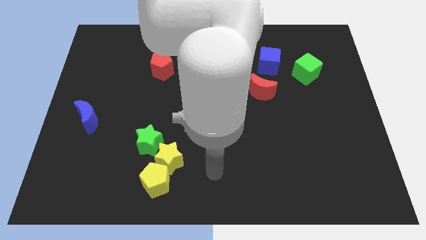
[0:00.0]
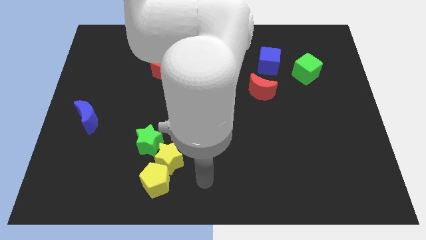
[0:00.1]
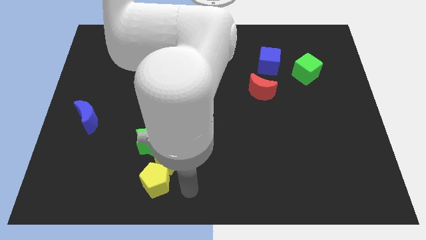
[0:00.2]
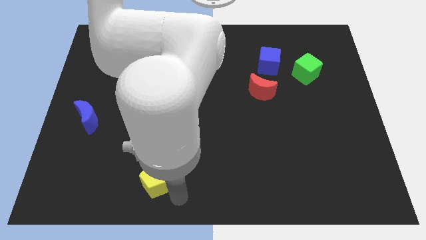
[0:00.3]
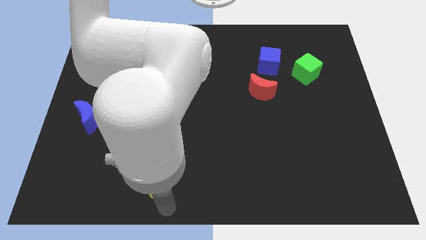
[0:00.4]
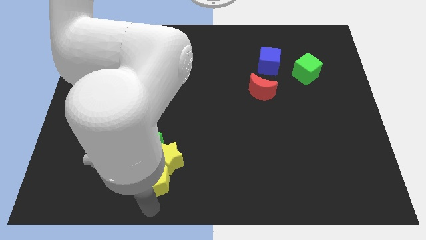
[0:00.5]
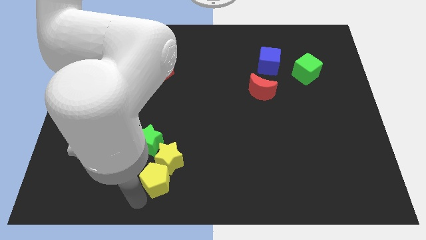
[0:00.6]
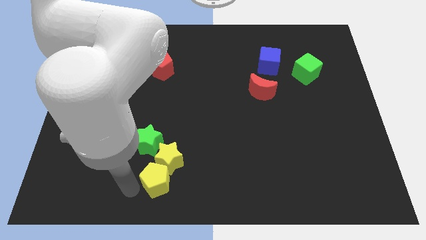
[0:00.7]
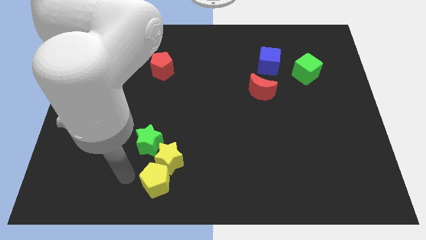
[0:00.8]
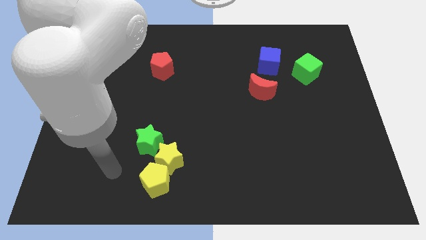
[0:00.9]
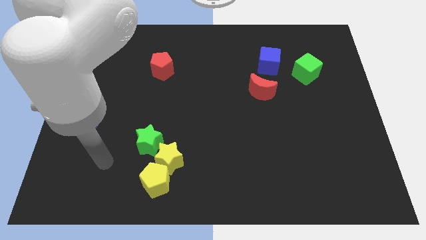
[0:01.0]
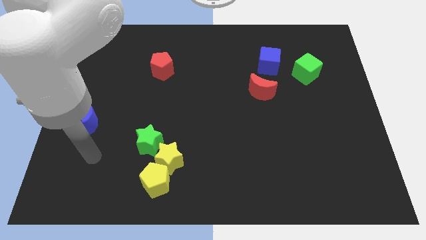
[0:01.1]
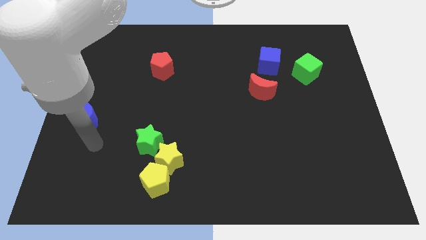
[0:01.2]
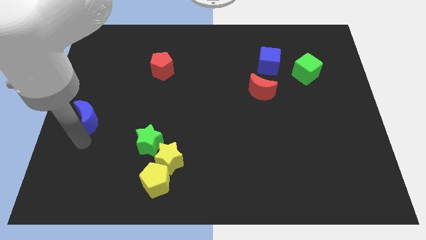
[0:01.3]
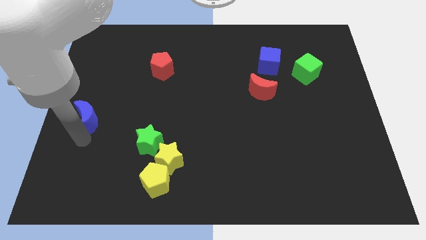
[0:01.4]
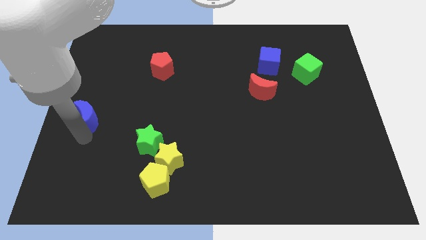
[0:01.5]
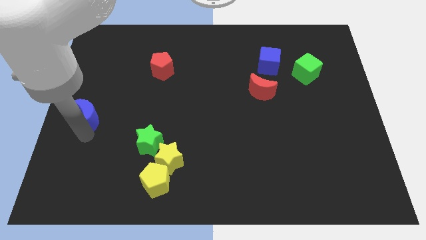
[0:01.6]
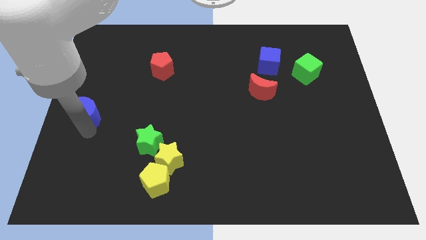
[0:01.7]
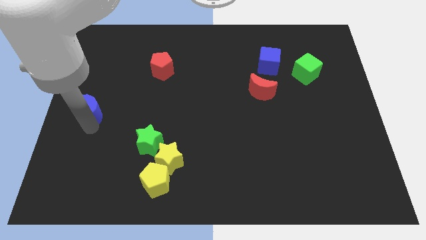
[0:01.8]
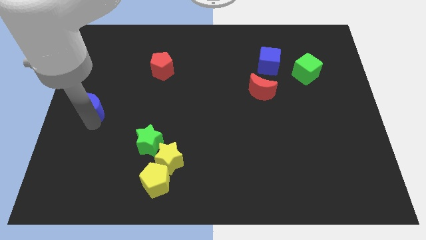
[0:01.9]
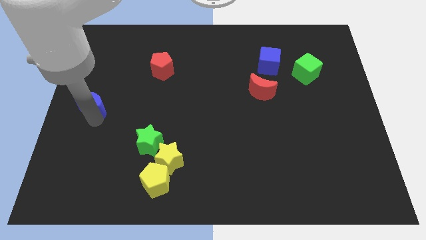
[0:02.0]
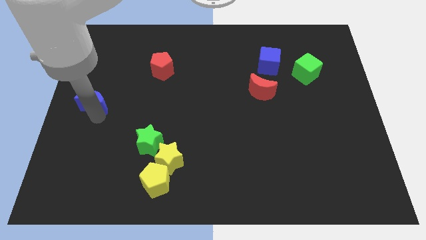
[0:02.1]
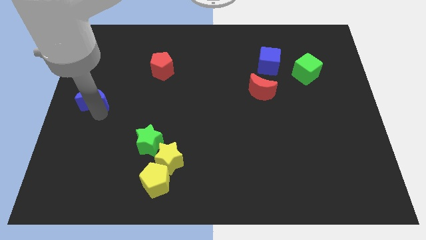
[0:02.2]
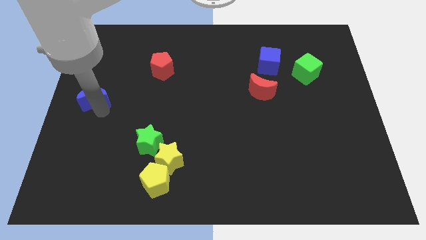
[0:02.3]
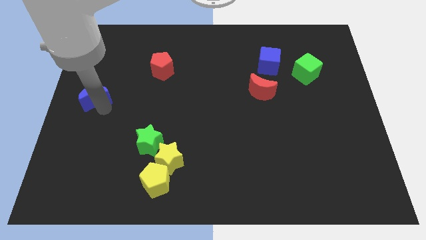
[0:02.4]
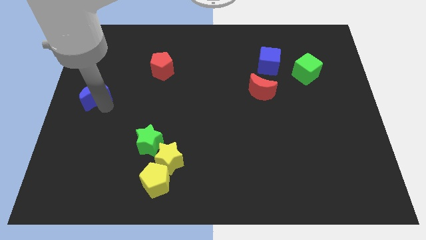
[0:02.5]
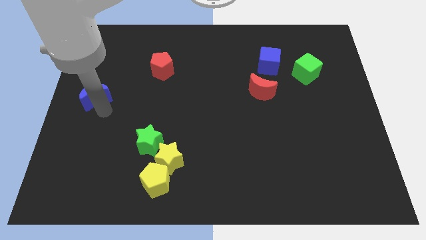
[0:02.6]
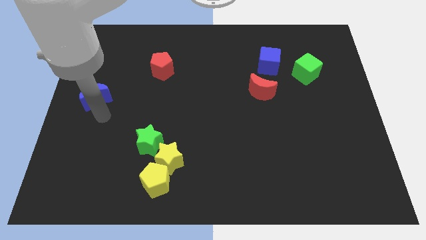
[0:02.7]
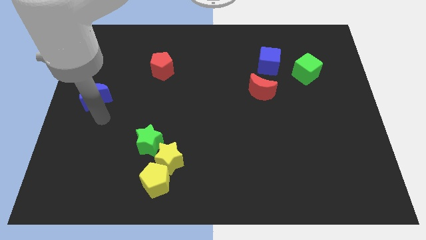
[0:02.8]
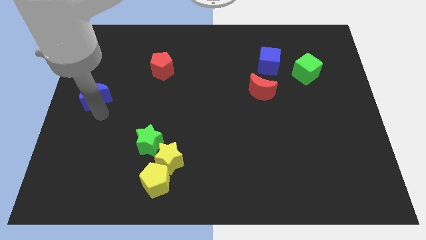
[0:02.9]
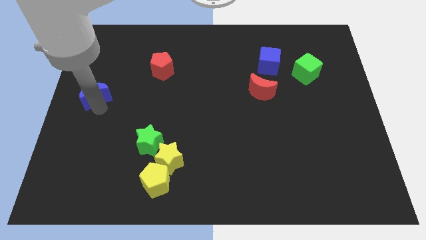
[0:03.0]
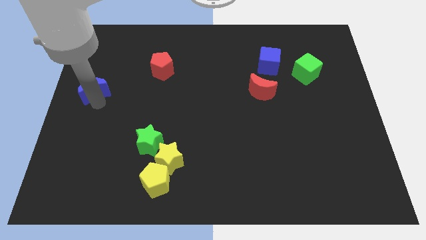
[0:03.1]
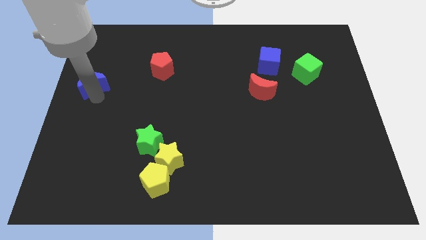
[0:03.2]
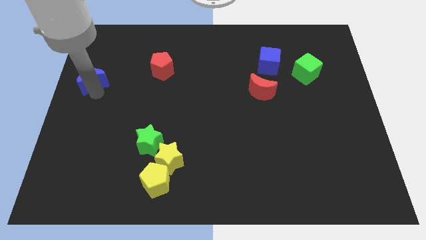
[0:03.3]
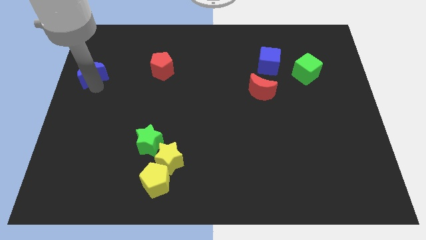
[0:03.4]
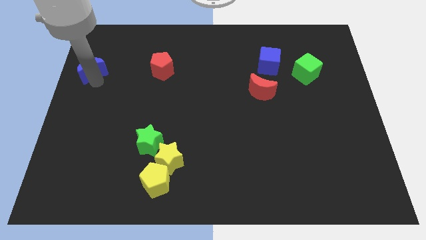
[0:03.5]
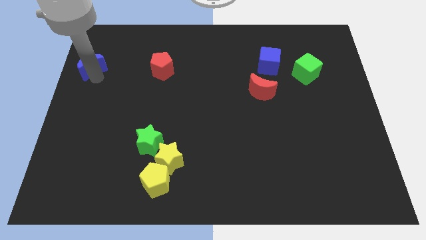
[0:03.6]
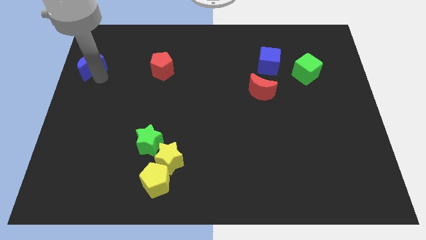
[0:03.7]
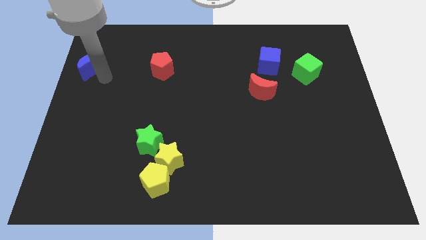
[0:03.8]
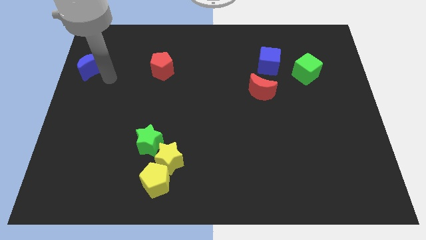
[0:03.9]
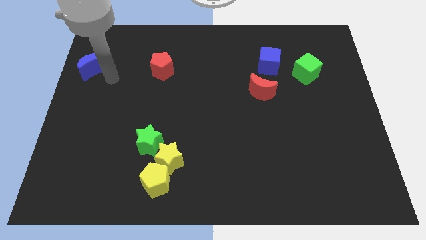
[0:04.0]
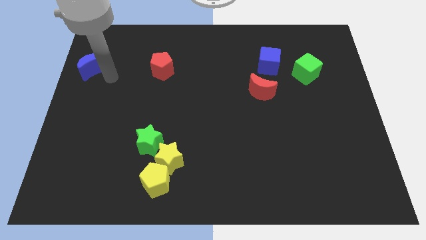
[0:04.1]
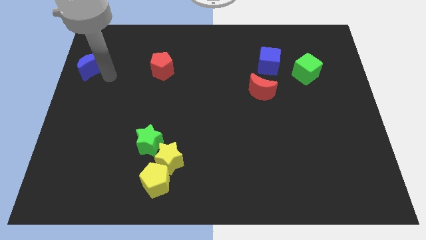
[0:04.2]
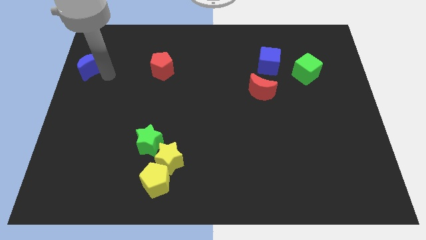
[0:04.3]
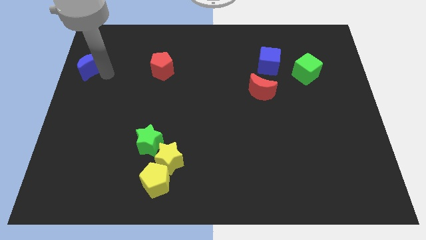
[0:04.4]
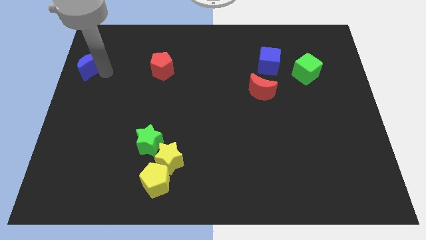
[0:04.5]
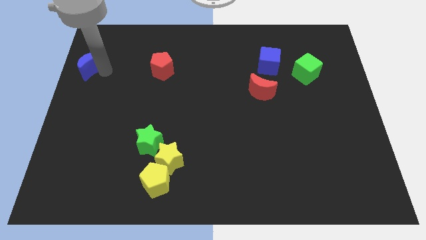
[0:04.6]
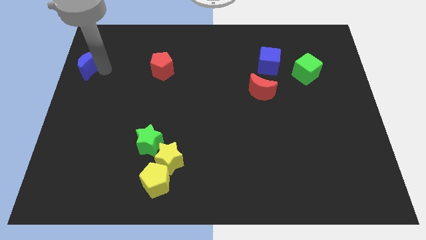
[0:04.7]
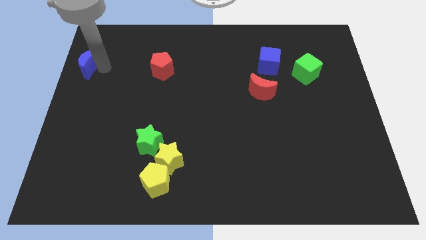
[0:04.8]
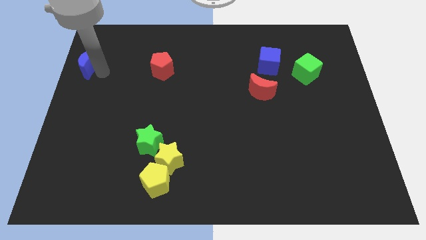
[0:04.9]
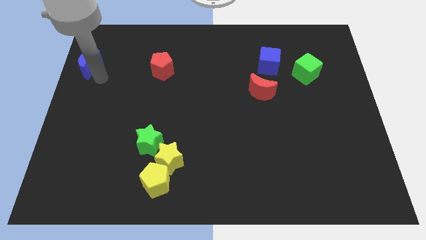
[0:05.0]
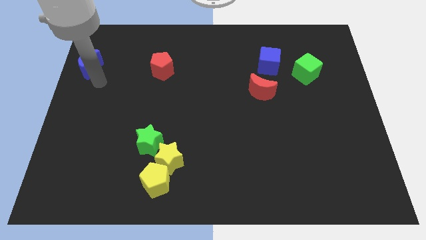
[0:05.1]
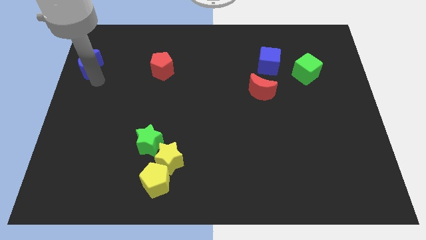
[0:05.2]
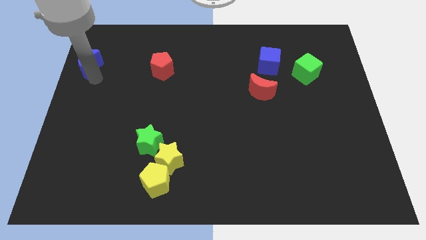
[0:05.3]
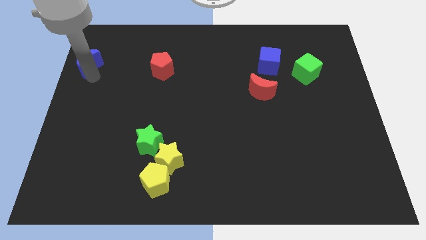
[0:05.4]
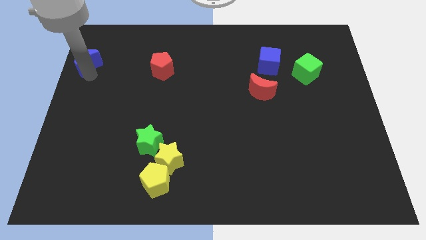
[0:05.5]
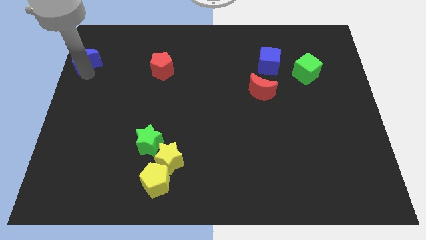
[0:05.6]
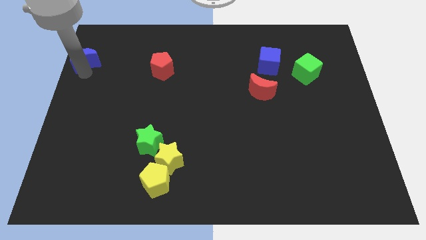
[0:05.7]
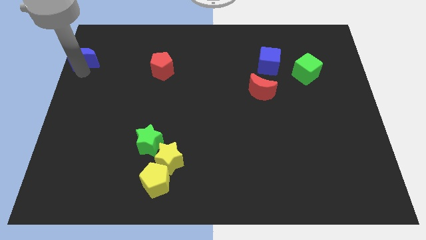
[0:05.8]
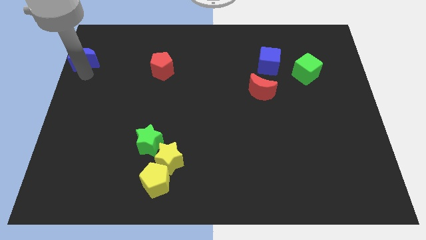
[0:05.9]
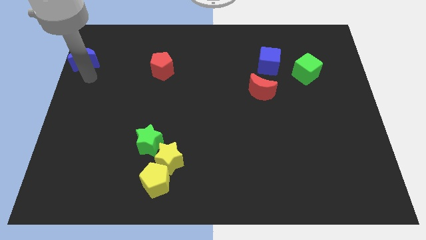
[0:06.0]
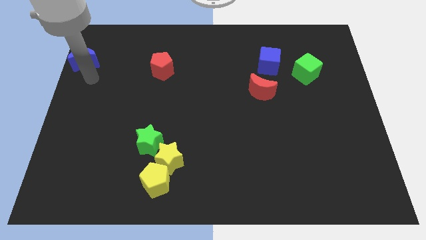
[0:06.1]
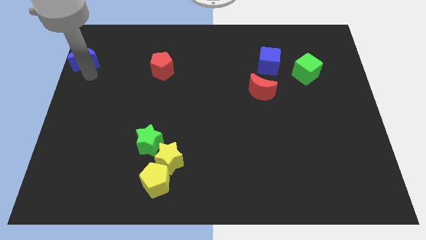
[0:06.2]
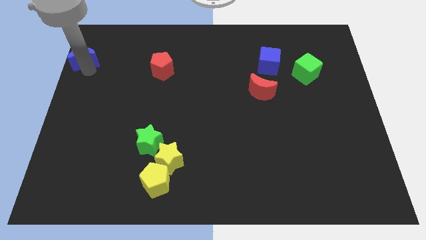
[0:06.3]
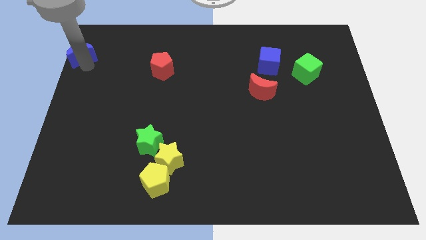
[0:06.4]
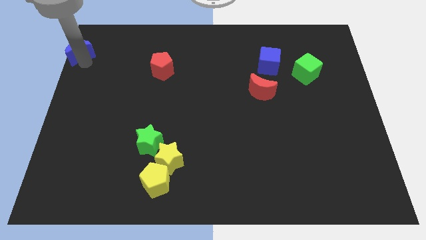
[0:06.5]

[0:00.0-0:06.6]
move the blue moon to the upper left corner
